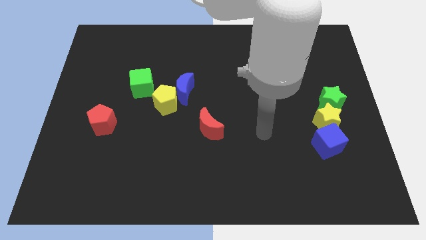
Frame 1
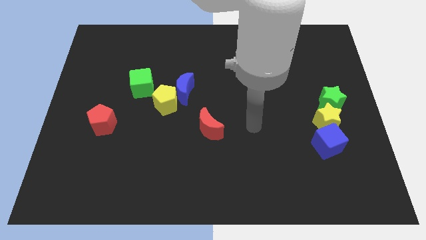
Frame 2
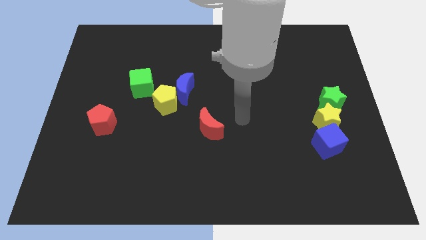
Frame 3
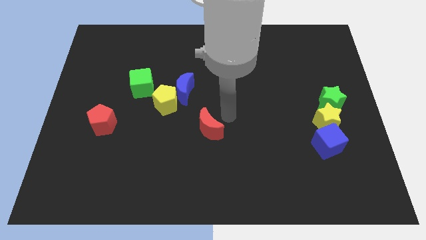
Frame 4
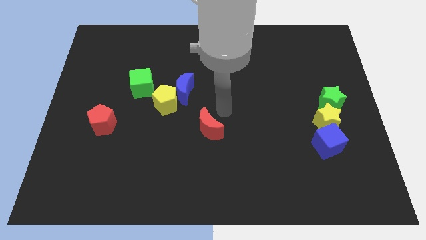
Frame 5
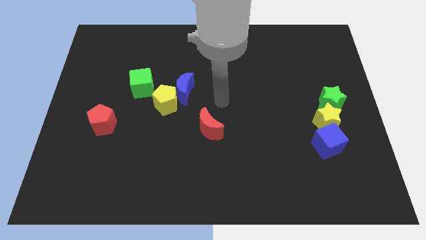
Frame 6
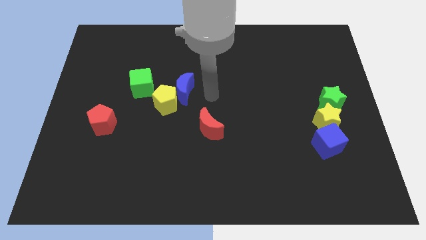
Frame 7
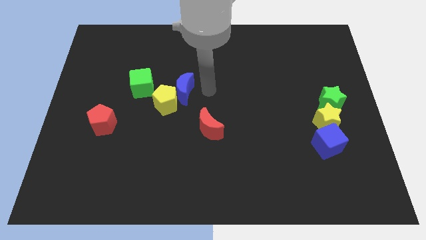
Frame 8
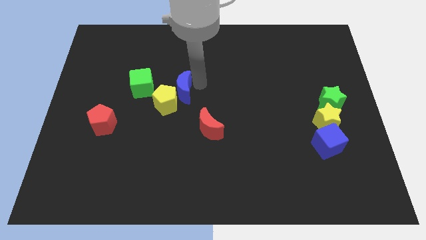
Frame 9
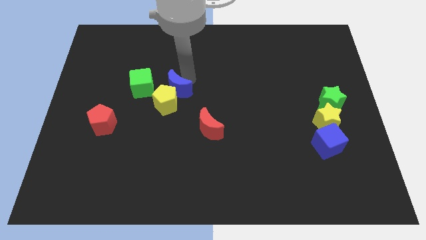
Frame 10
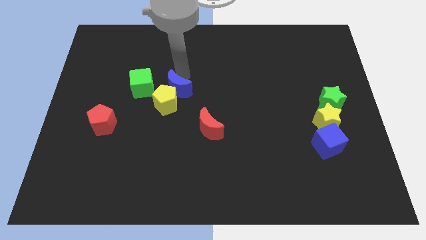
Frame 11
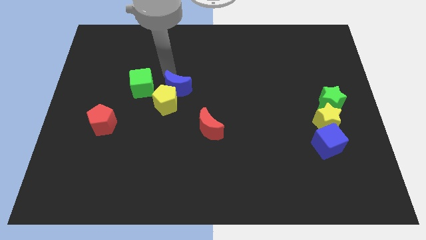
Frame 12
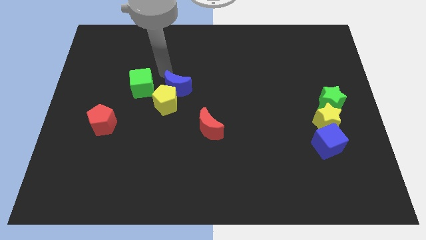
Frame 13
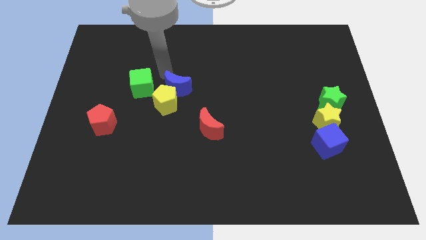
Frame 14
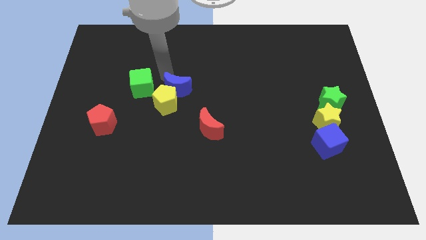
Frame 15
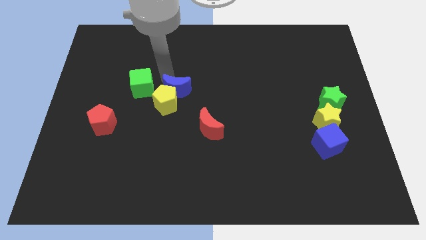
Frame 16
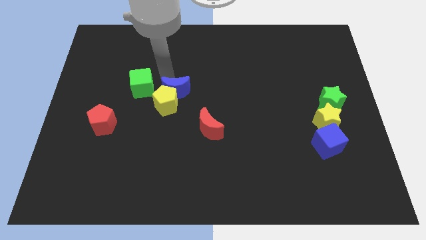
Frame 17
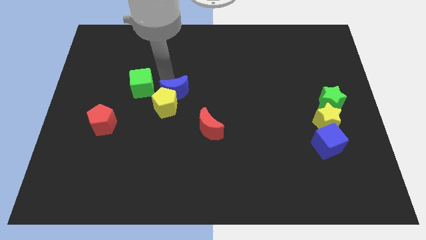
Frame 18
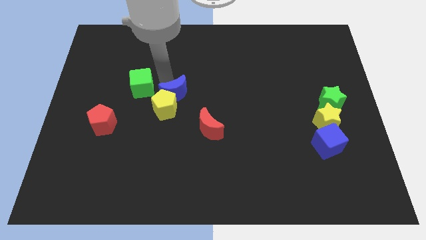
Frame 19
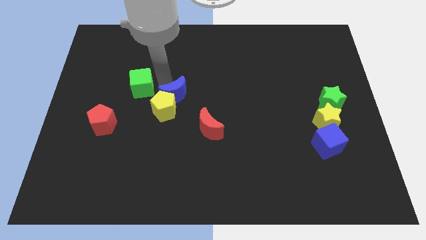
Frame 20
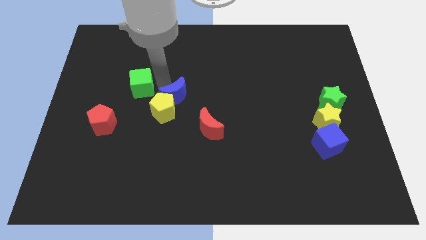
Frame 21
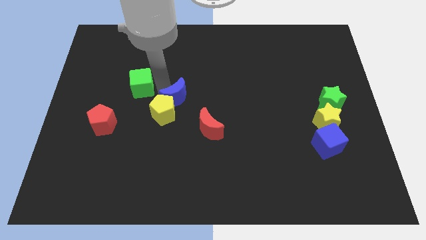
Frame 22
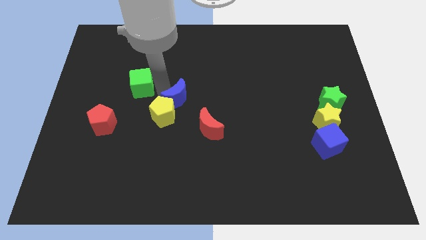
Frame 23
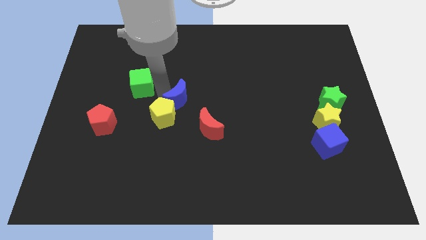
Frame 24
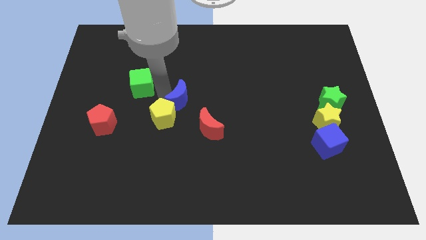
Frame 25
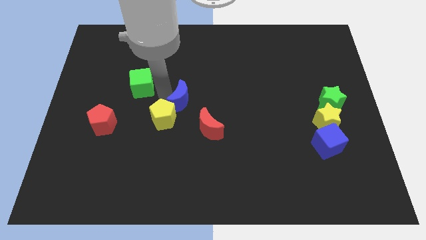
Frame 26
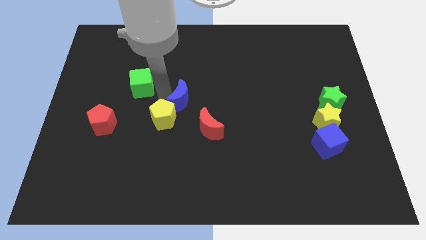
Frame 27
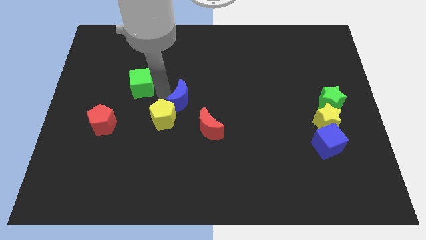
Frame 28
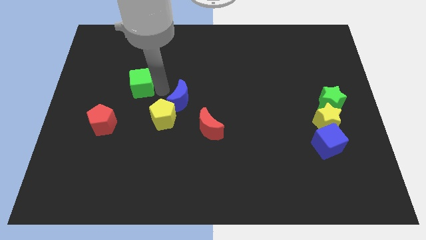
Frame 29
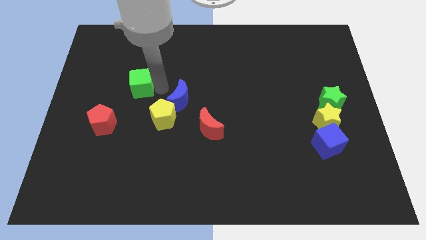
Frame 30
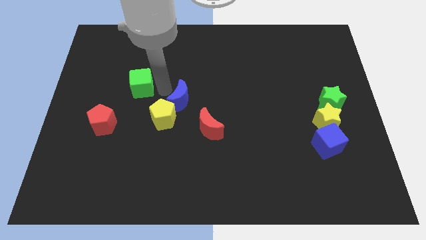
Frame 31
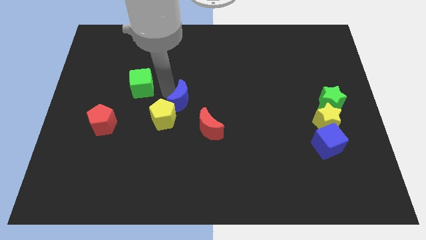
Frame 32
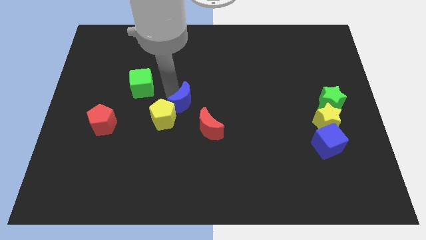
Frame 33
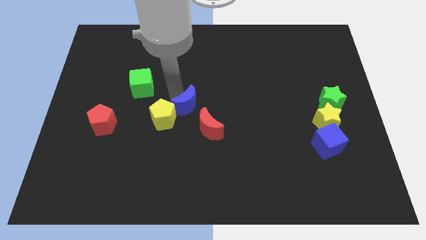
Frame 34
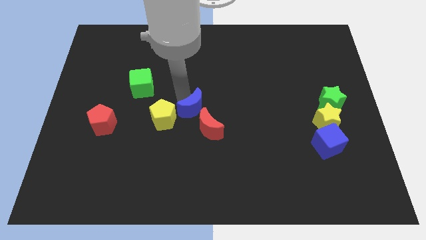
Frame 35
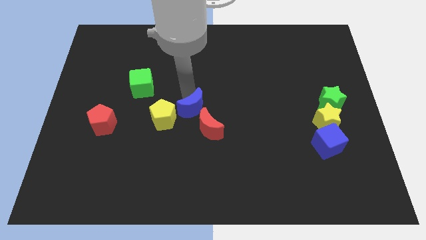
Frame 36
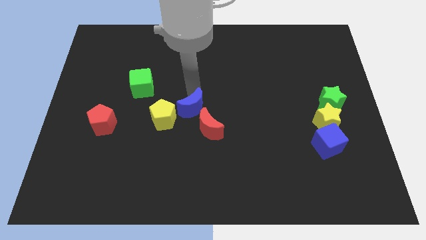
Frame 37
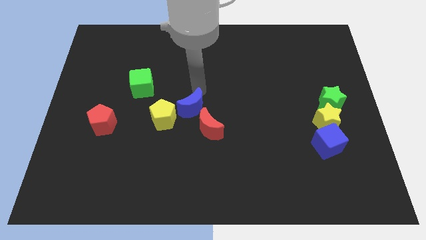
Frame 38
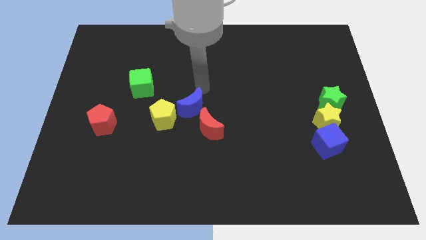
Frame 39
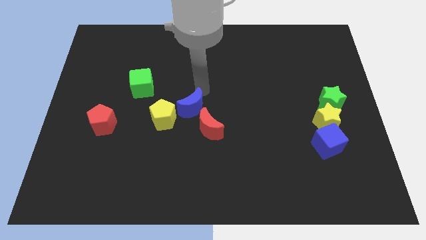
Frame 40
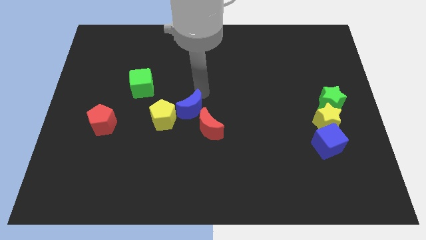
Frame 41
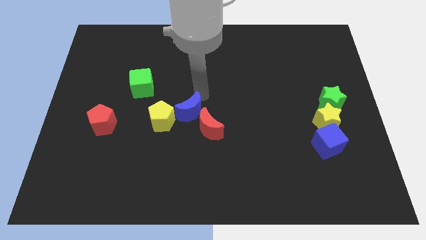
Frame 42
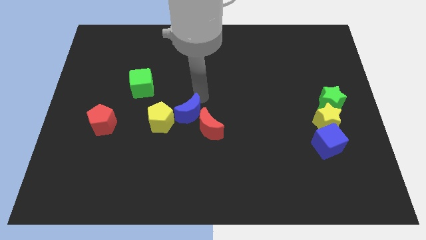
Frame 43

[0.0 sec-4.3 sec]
slightly push the blue moon down

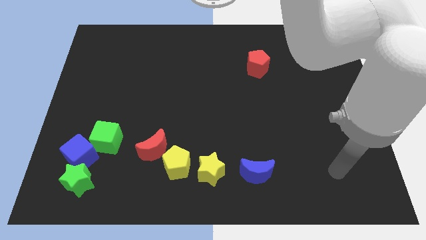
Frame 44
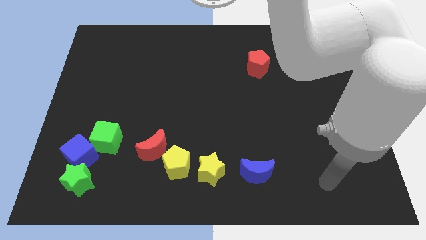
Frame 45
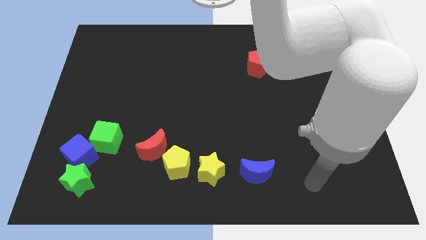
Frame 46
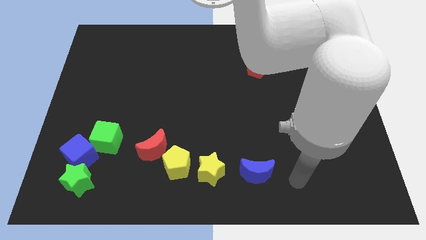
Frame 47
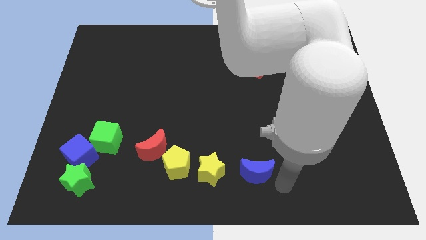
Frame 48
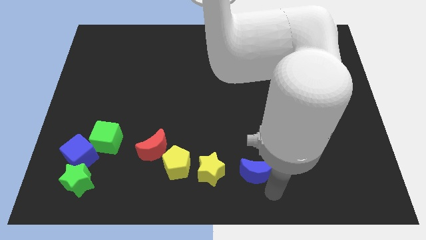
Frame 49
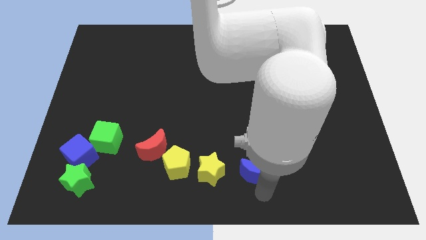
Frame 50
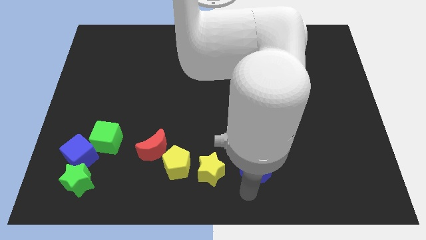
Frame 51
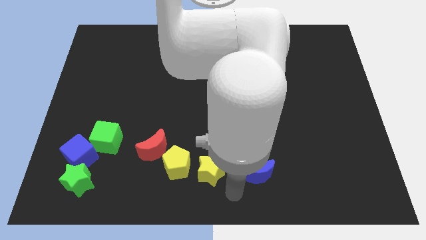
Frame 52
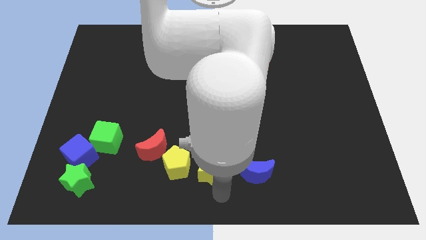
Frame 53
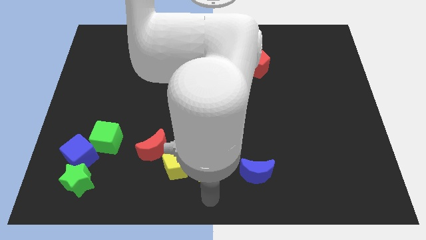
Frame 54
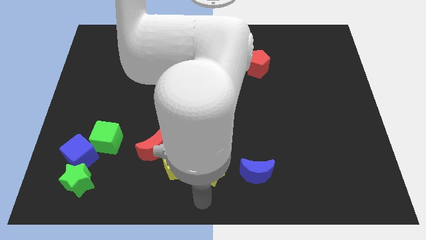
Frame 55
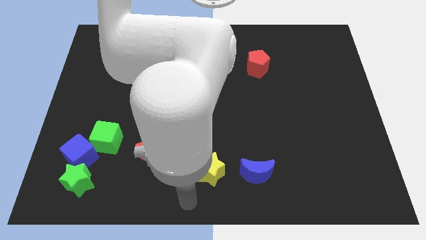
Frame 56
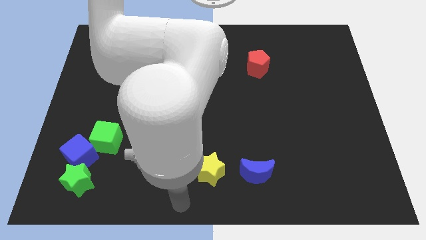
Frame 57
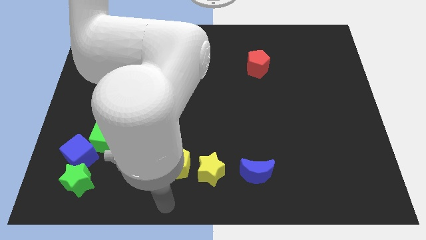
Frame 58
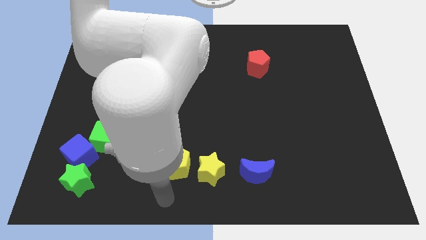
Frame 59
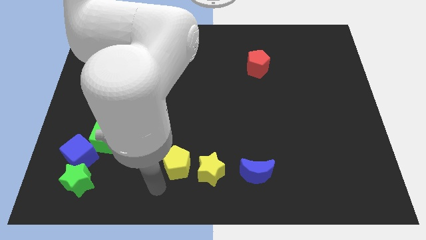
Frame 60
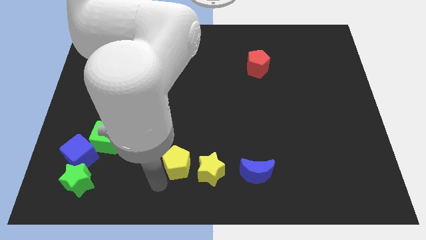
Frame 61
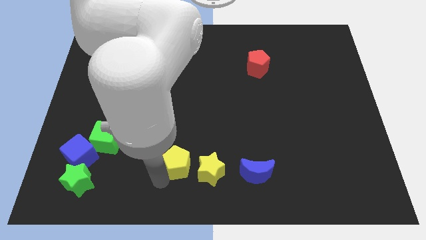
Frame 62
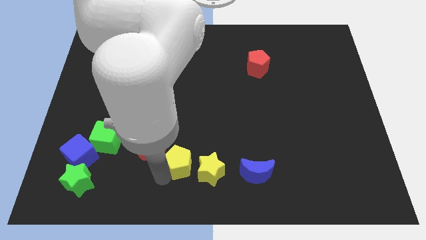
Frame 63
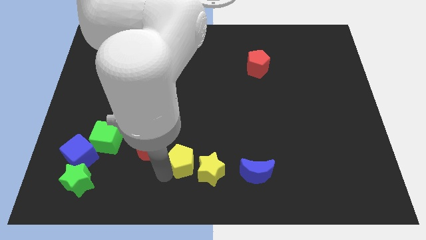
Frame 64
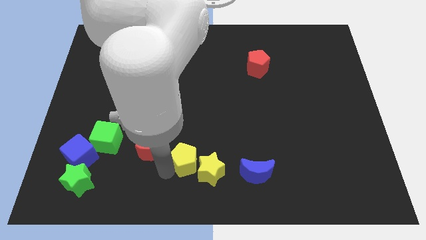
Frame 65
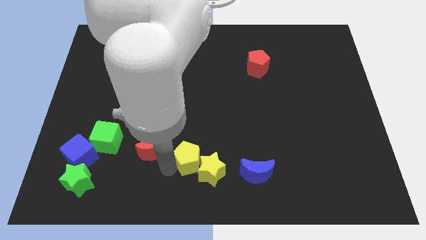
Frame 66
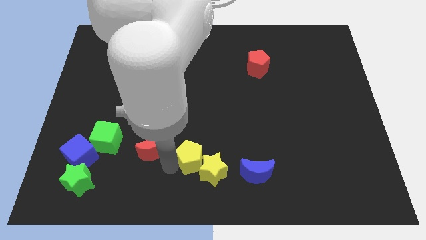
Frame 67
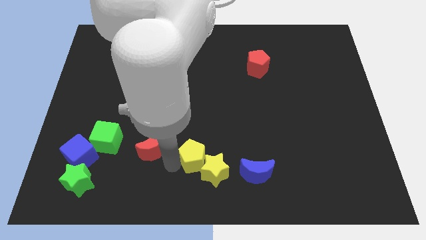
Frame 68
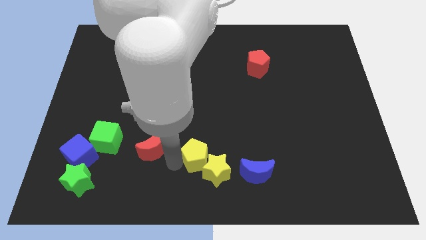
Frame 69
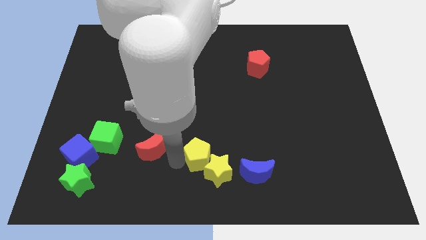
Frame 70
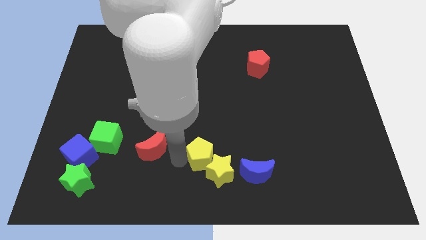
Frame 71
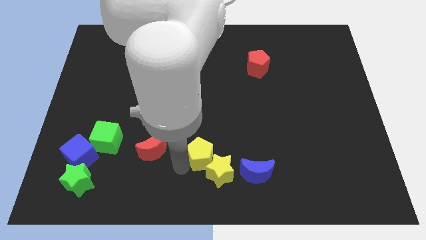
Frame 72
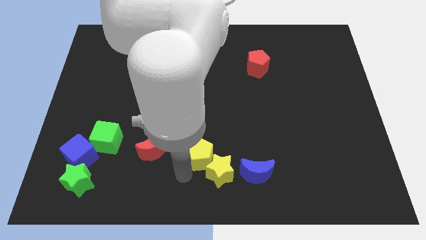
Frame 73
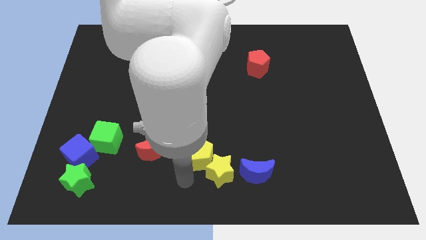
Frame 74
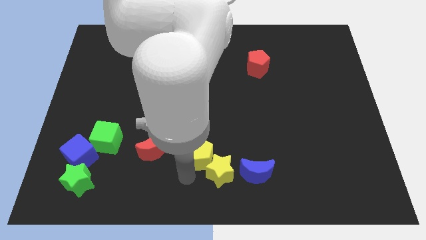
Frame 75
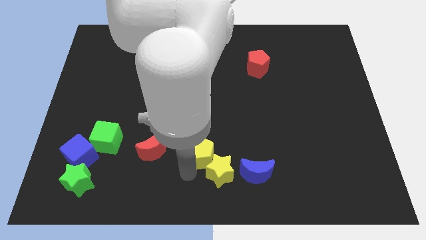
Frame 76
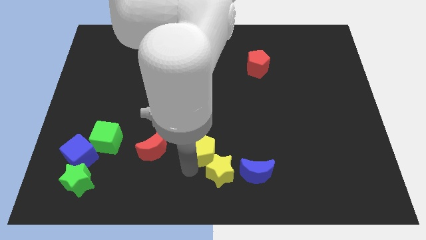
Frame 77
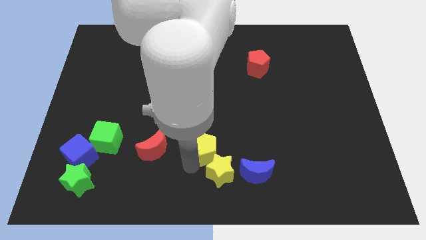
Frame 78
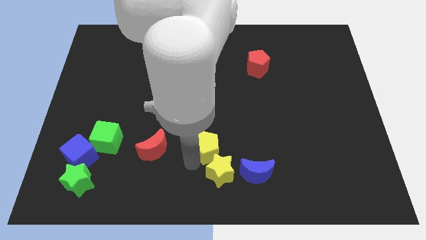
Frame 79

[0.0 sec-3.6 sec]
slightly push the yellow pentagon upwards and right

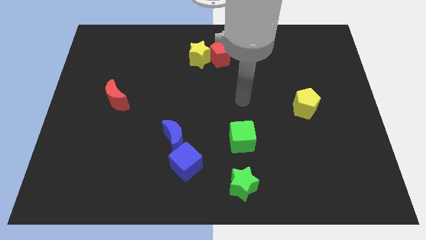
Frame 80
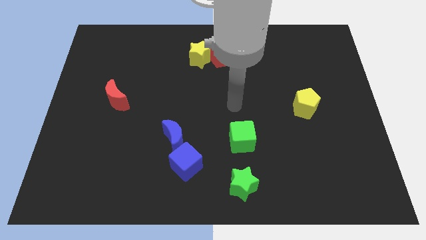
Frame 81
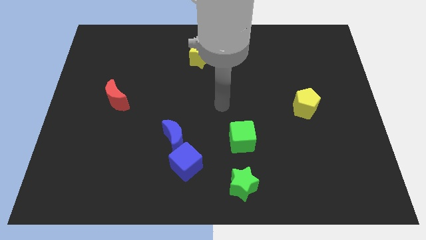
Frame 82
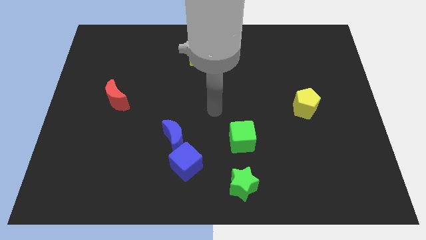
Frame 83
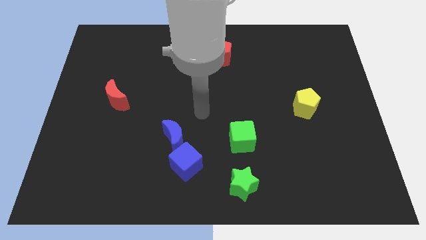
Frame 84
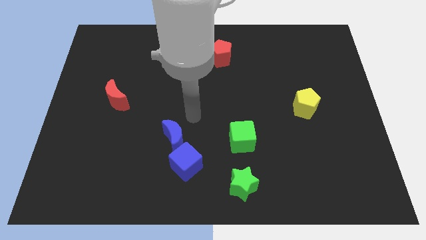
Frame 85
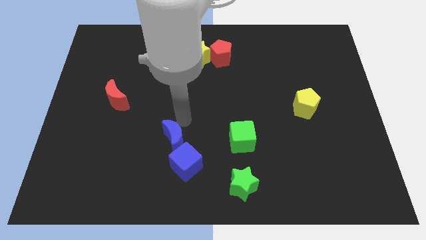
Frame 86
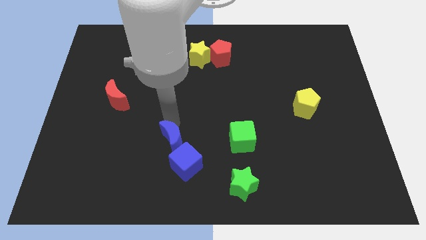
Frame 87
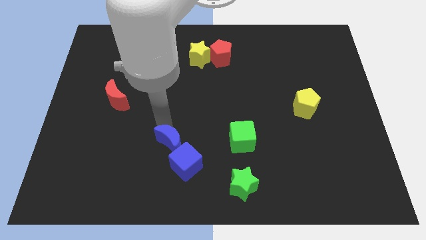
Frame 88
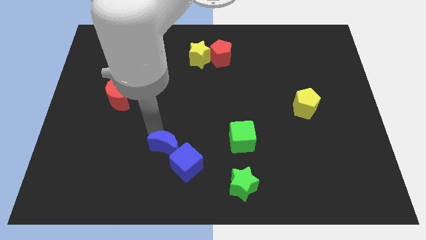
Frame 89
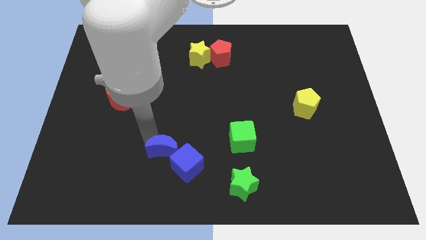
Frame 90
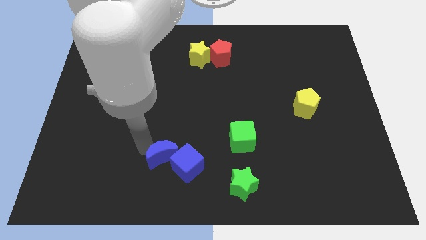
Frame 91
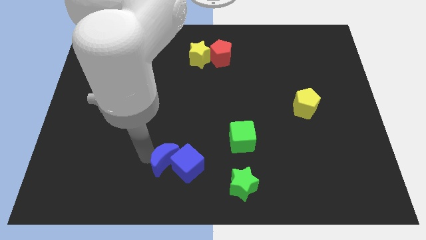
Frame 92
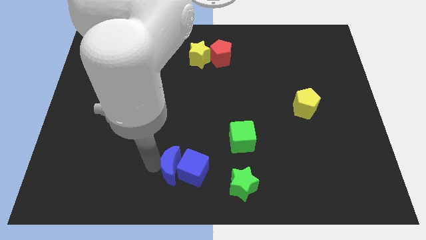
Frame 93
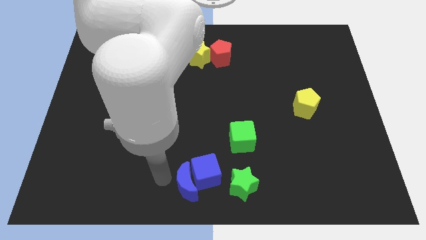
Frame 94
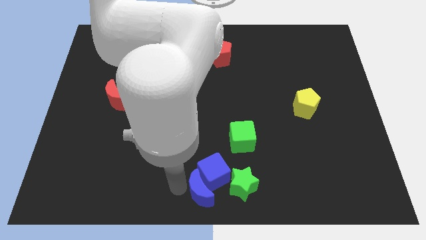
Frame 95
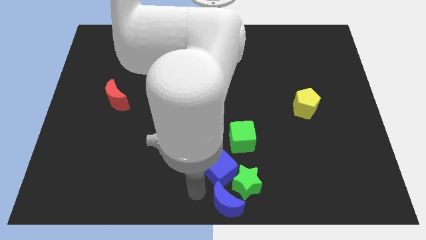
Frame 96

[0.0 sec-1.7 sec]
move the blue cube to the right a bit
